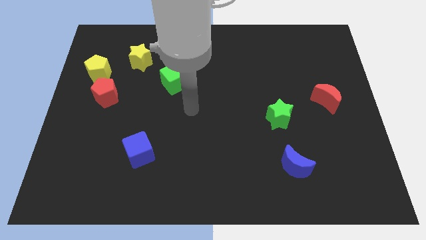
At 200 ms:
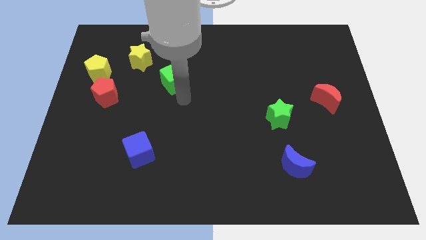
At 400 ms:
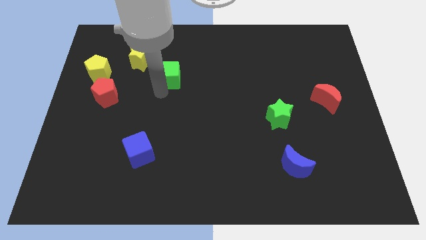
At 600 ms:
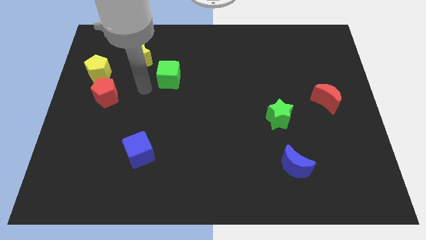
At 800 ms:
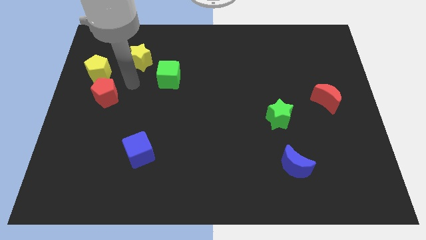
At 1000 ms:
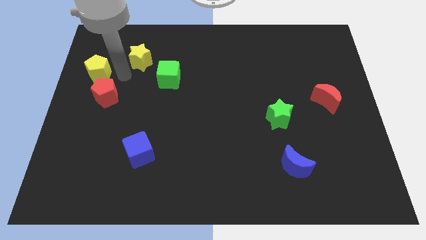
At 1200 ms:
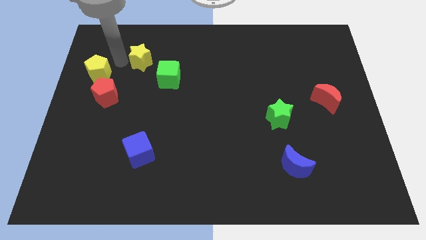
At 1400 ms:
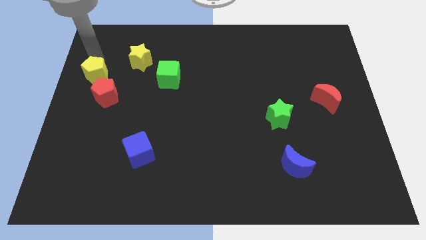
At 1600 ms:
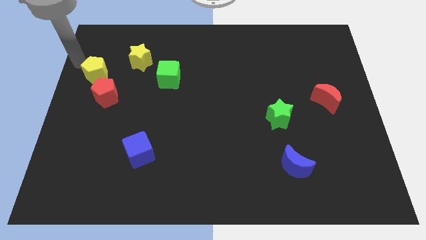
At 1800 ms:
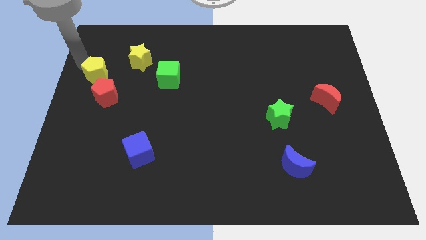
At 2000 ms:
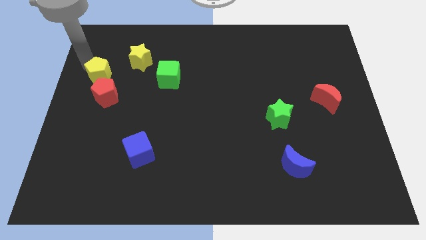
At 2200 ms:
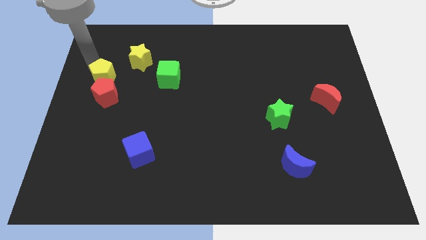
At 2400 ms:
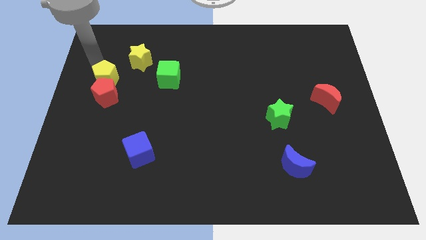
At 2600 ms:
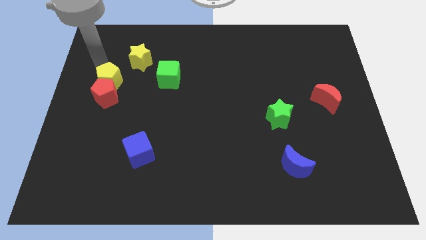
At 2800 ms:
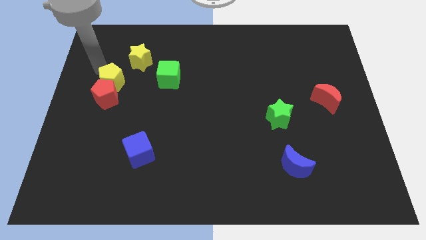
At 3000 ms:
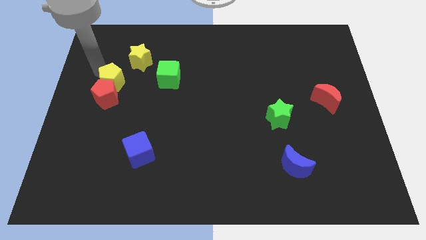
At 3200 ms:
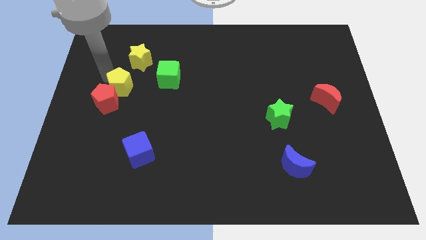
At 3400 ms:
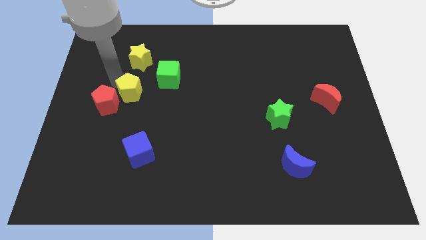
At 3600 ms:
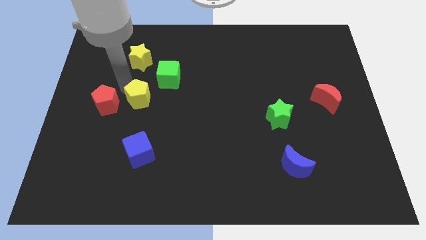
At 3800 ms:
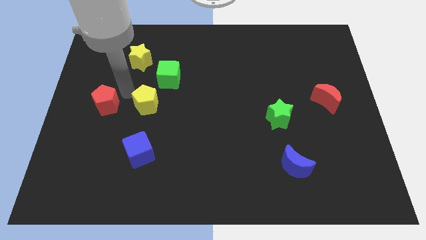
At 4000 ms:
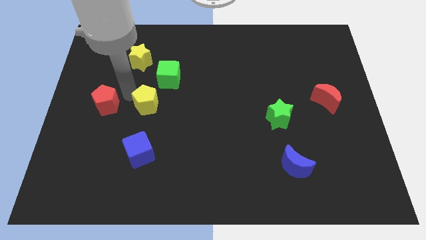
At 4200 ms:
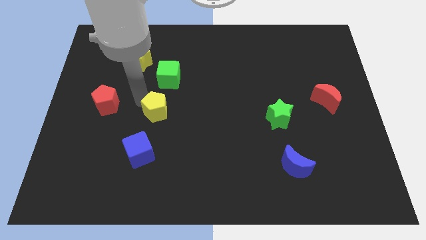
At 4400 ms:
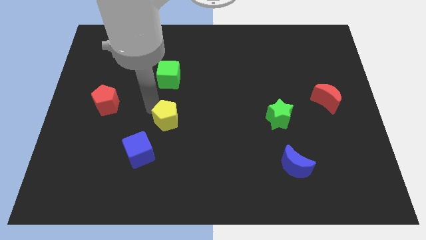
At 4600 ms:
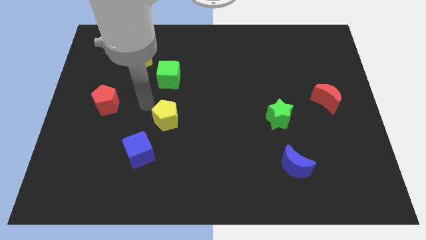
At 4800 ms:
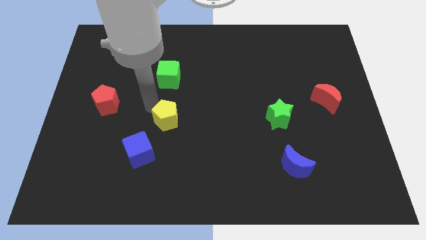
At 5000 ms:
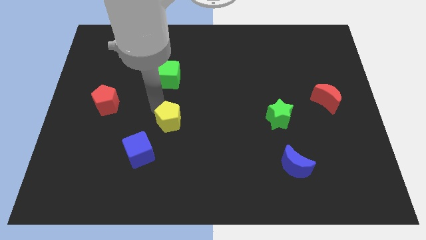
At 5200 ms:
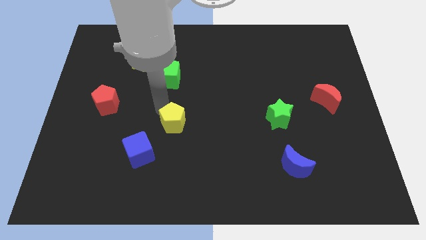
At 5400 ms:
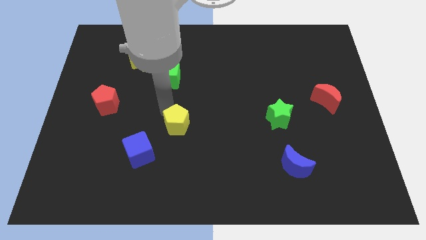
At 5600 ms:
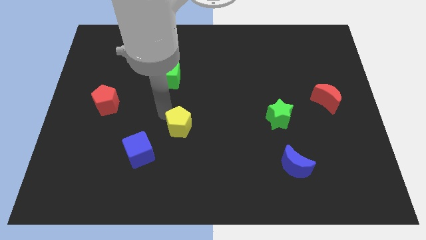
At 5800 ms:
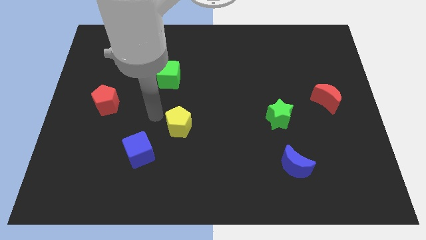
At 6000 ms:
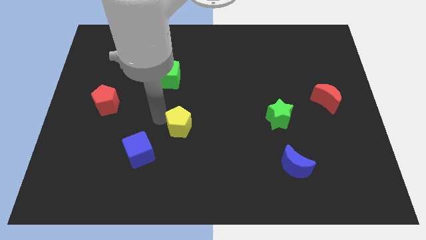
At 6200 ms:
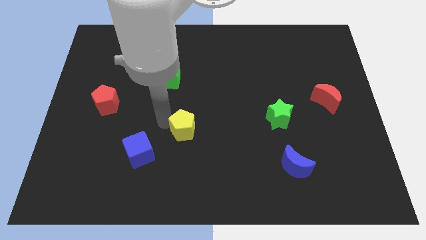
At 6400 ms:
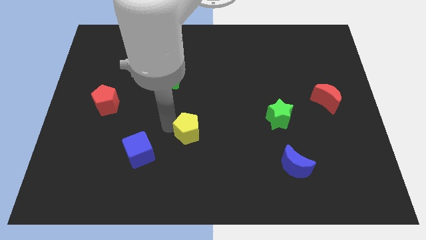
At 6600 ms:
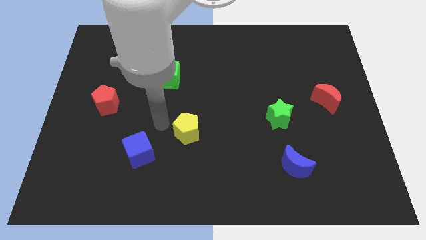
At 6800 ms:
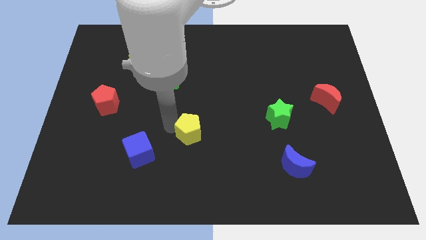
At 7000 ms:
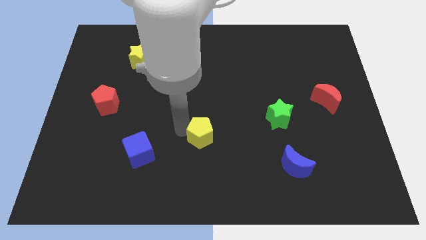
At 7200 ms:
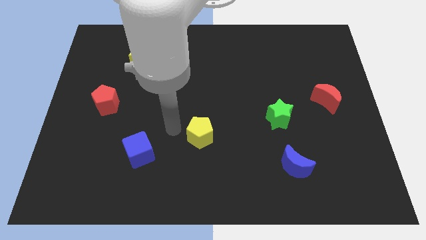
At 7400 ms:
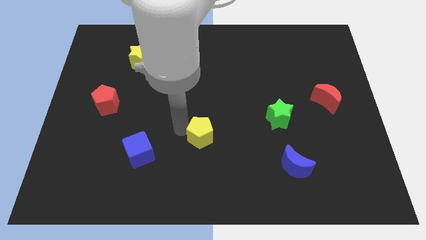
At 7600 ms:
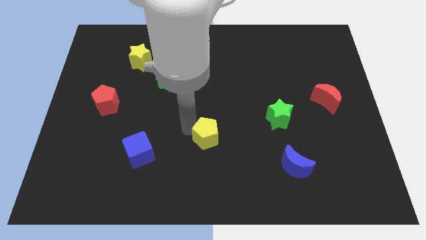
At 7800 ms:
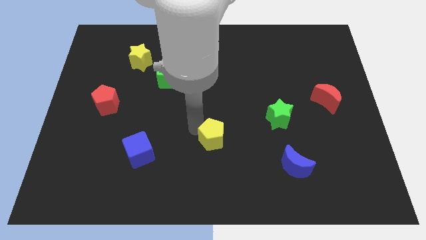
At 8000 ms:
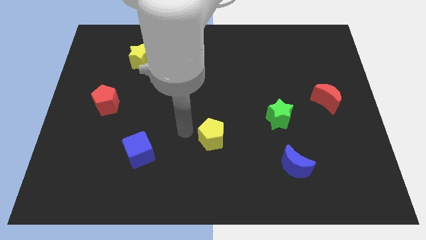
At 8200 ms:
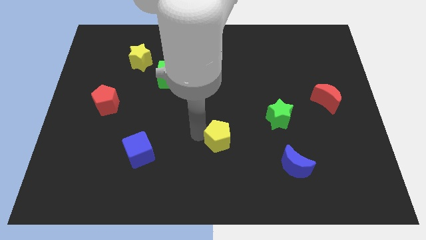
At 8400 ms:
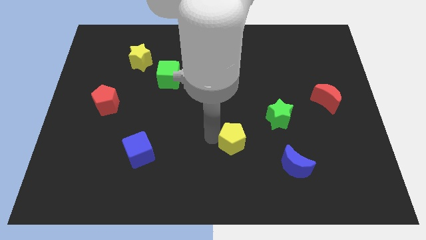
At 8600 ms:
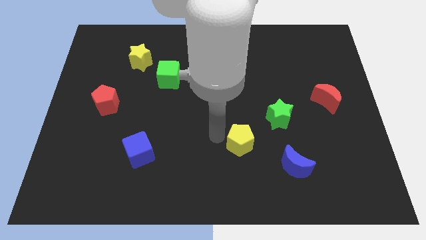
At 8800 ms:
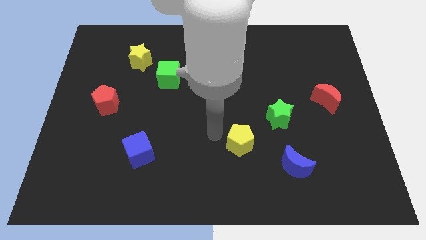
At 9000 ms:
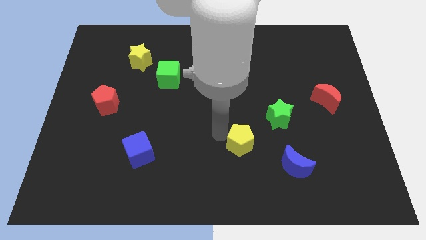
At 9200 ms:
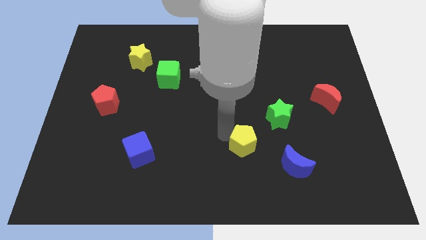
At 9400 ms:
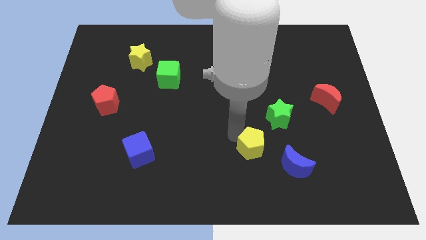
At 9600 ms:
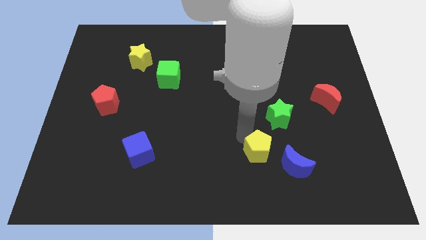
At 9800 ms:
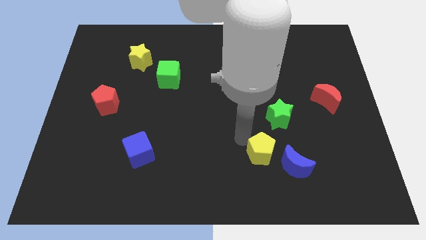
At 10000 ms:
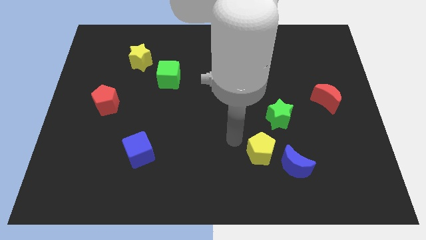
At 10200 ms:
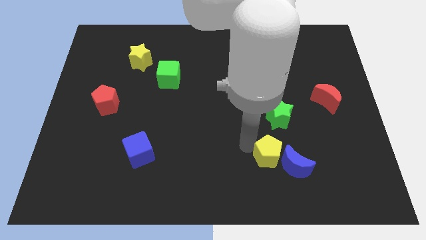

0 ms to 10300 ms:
put the yellow pentagon towards the blue moon

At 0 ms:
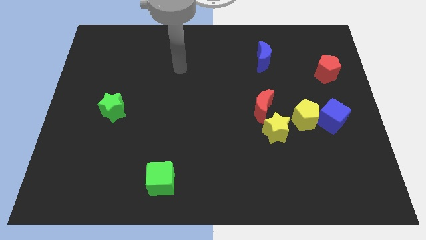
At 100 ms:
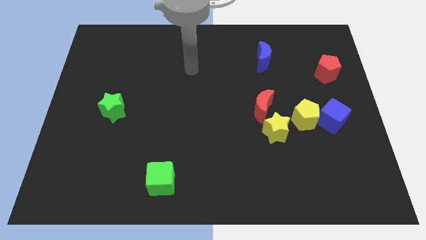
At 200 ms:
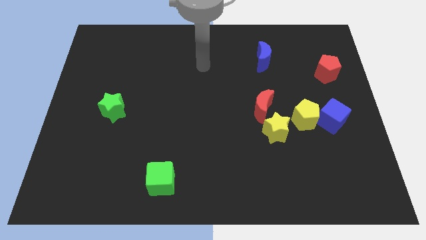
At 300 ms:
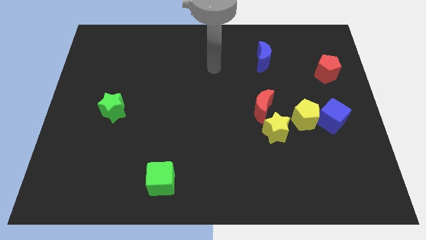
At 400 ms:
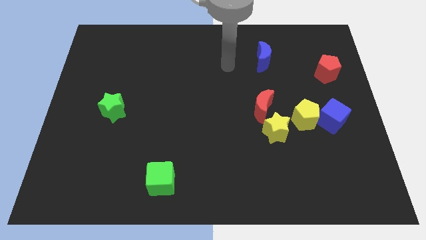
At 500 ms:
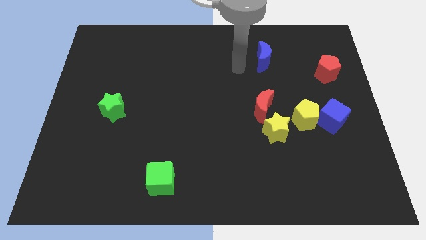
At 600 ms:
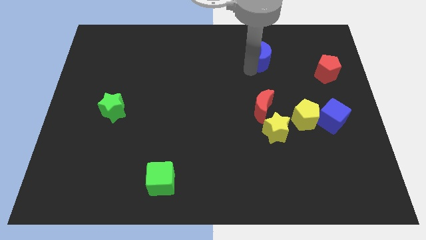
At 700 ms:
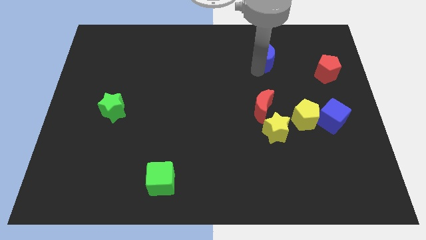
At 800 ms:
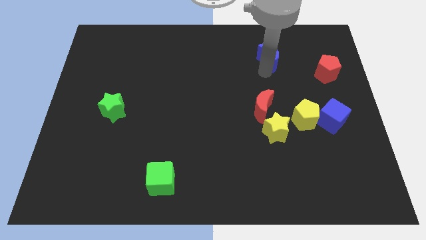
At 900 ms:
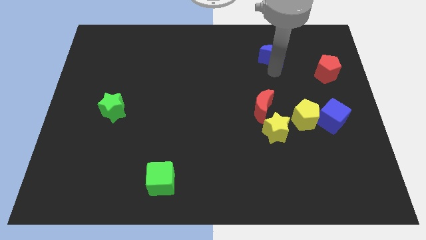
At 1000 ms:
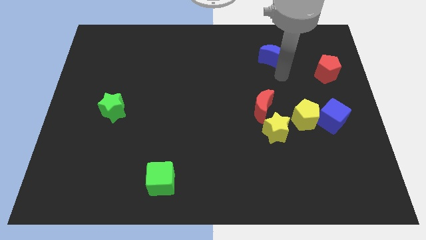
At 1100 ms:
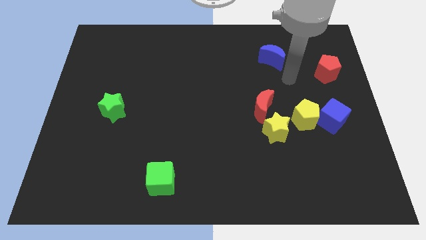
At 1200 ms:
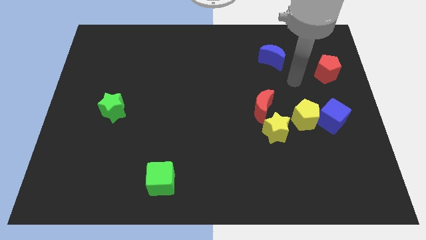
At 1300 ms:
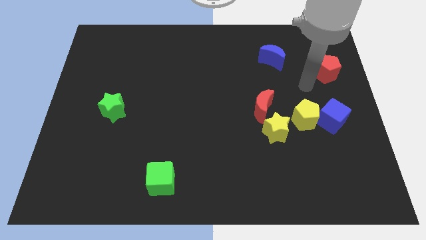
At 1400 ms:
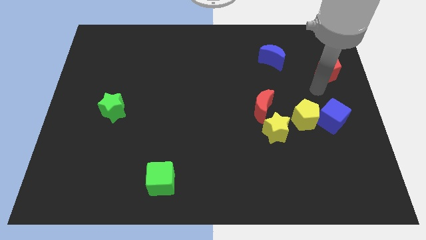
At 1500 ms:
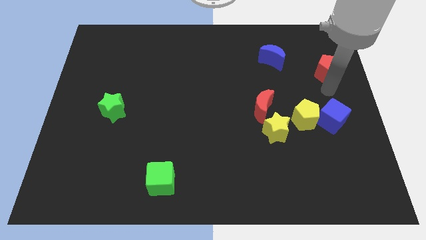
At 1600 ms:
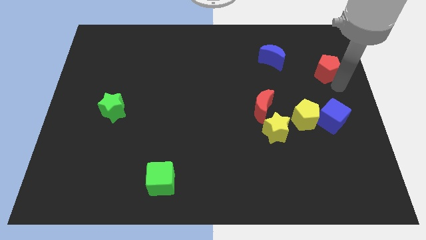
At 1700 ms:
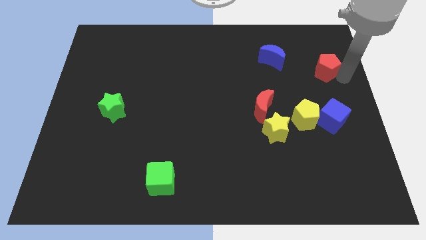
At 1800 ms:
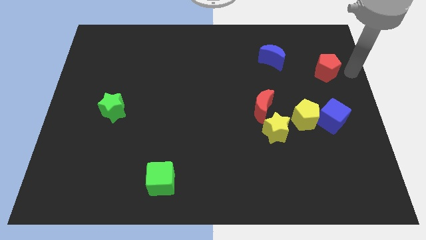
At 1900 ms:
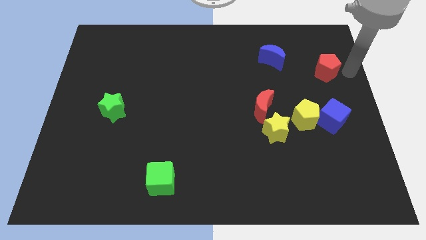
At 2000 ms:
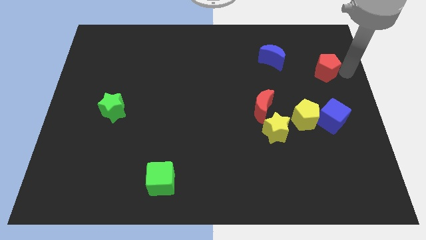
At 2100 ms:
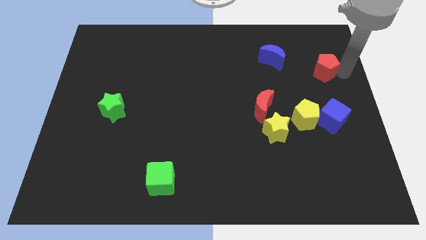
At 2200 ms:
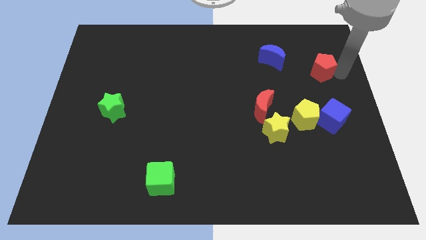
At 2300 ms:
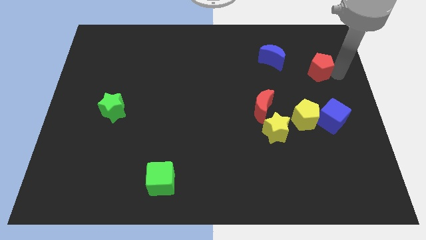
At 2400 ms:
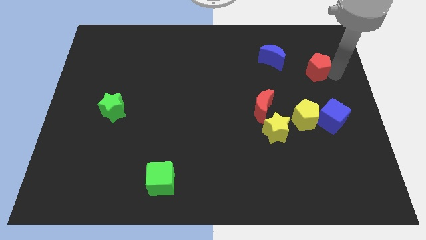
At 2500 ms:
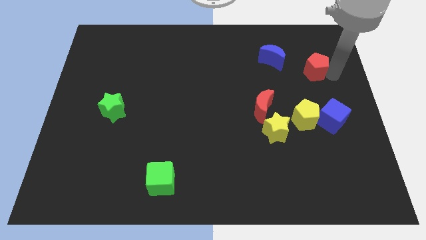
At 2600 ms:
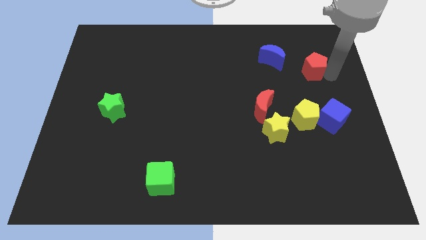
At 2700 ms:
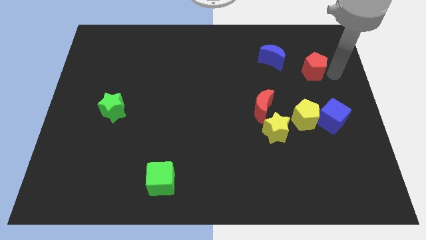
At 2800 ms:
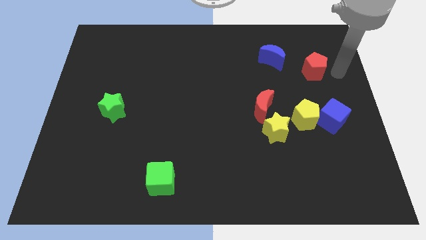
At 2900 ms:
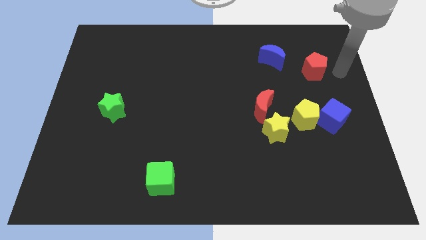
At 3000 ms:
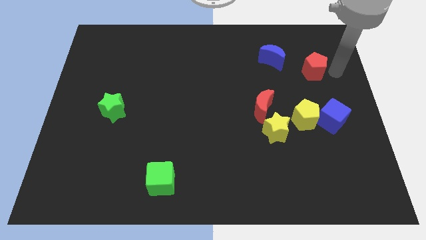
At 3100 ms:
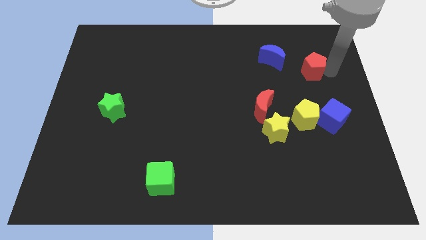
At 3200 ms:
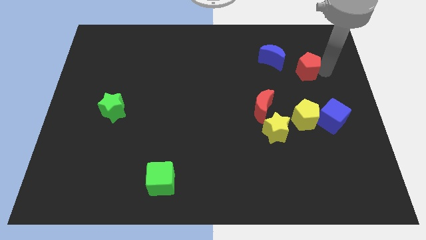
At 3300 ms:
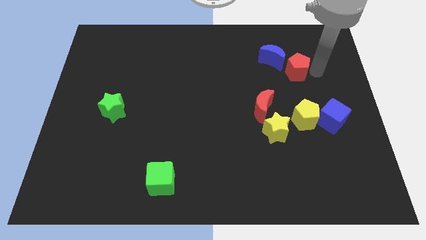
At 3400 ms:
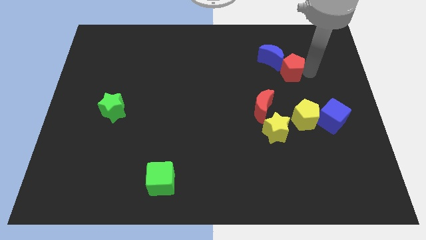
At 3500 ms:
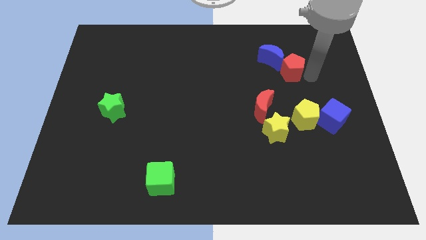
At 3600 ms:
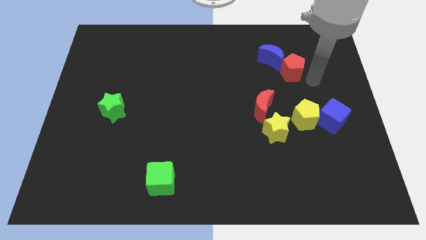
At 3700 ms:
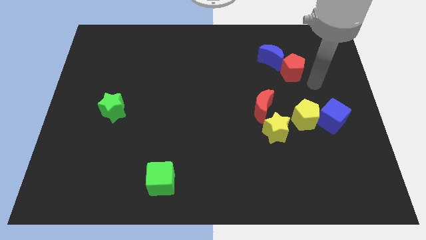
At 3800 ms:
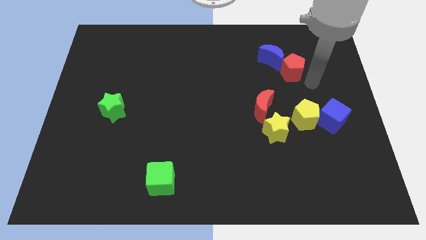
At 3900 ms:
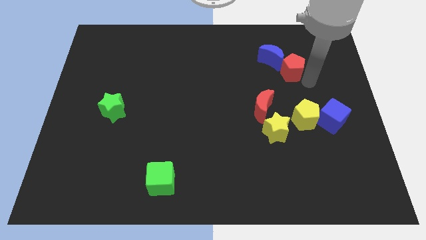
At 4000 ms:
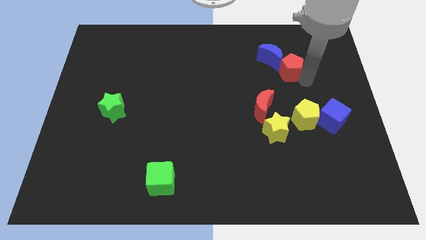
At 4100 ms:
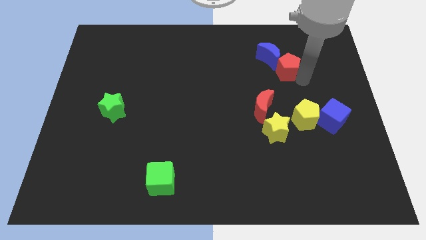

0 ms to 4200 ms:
push the red pentagon to the blue moon
